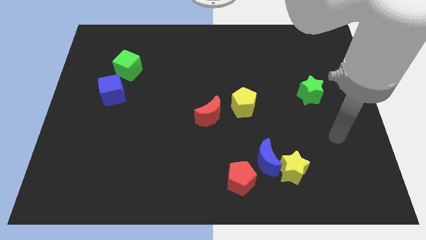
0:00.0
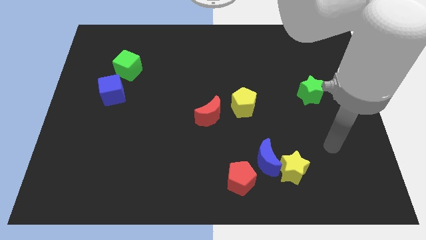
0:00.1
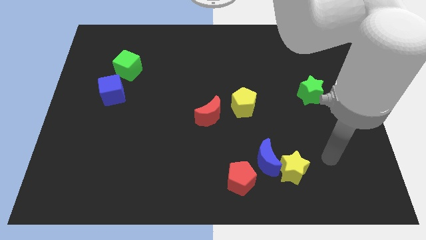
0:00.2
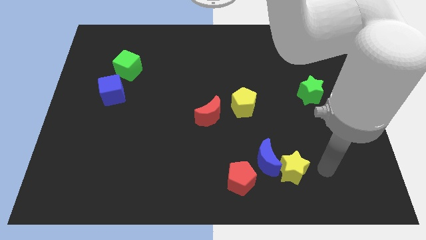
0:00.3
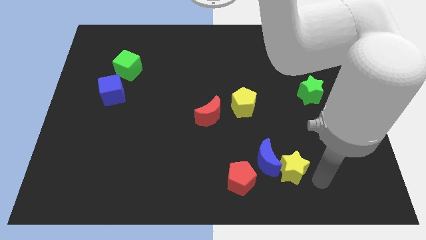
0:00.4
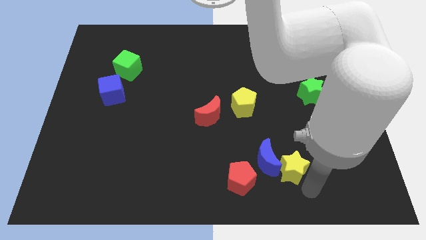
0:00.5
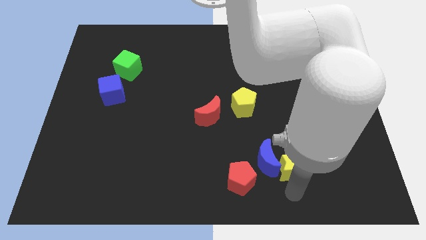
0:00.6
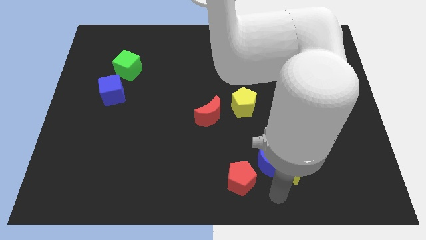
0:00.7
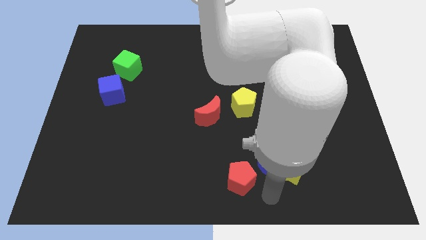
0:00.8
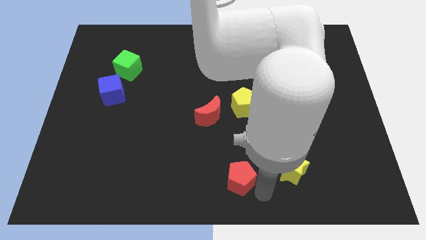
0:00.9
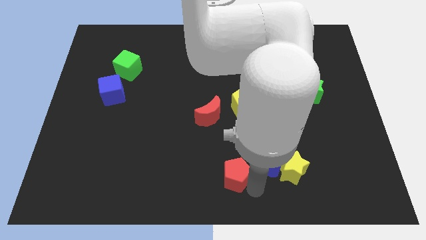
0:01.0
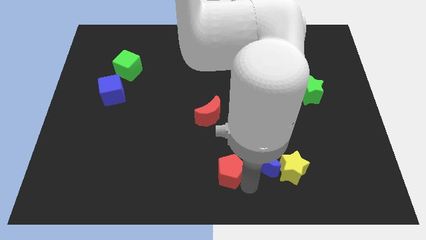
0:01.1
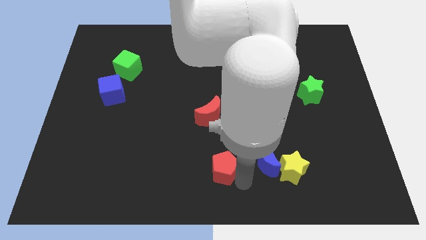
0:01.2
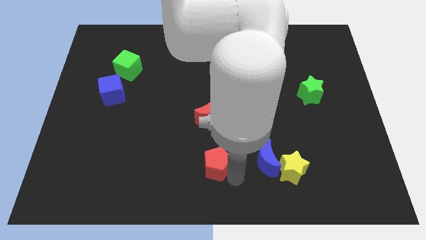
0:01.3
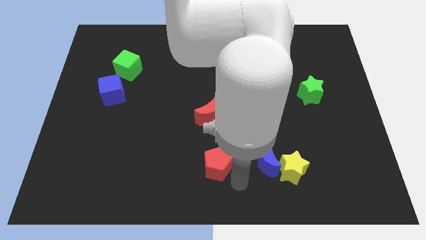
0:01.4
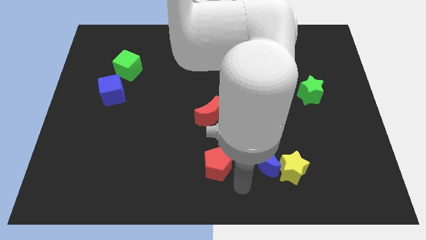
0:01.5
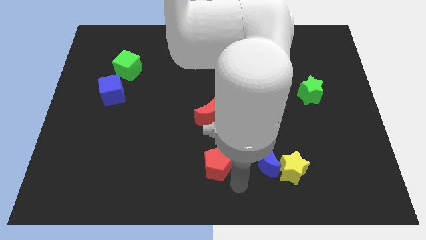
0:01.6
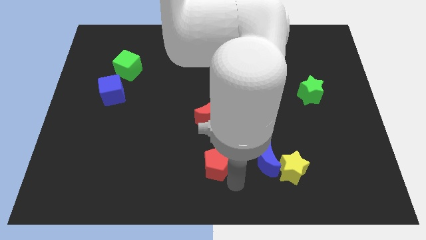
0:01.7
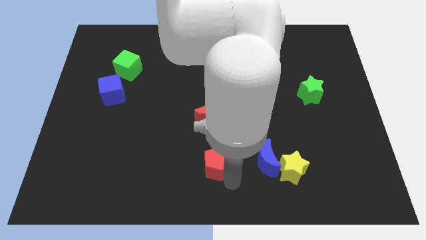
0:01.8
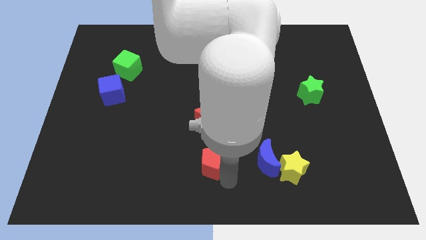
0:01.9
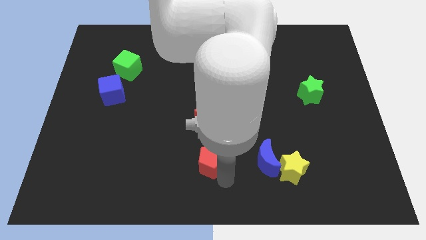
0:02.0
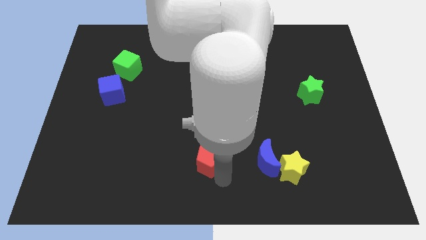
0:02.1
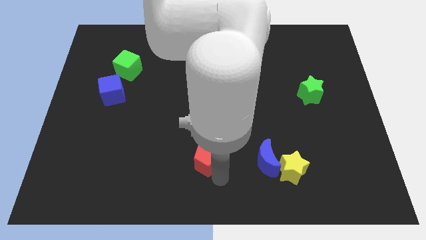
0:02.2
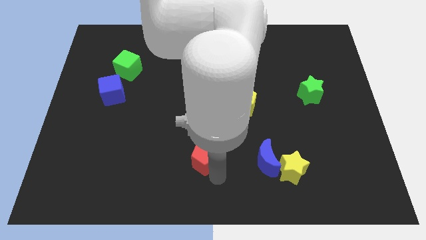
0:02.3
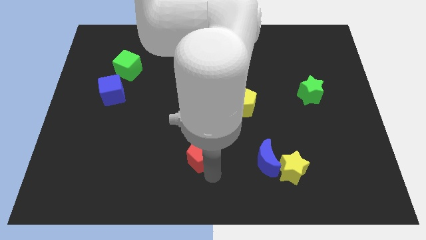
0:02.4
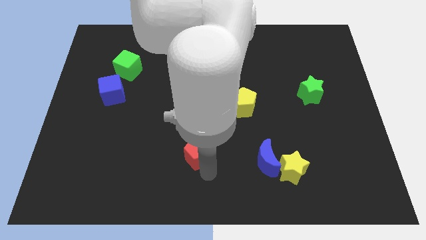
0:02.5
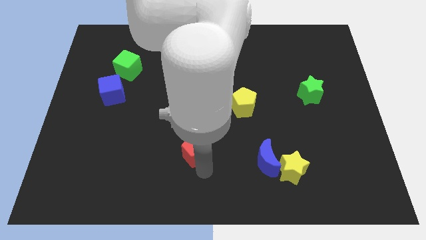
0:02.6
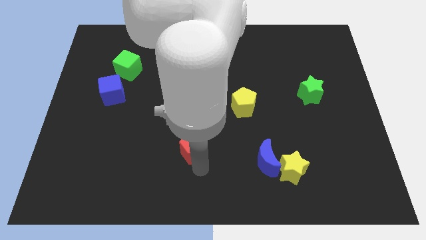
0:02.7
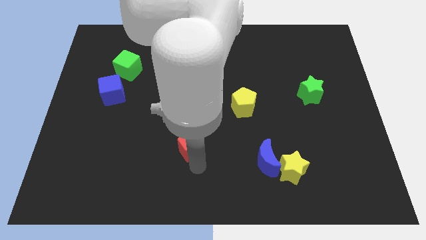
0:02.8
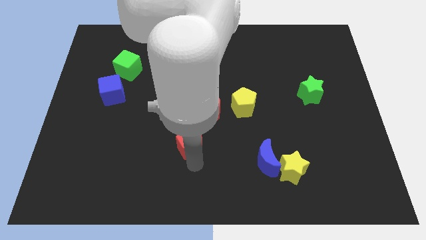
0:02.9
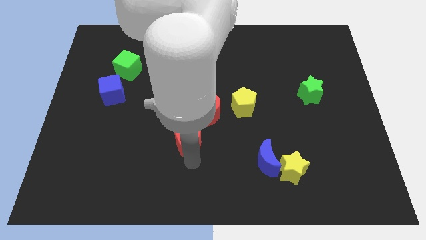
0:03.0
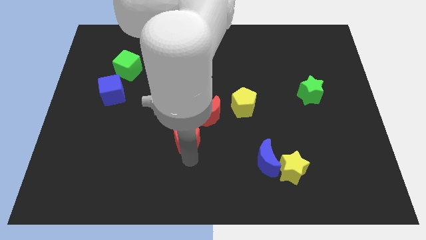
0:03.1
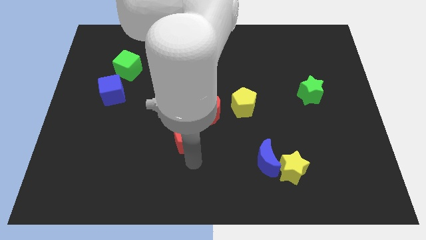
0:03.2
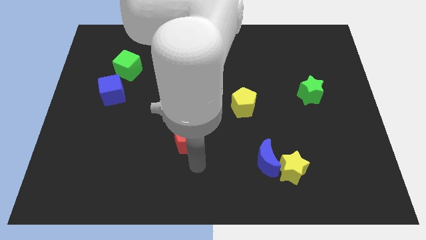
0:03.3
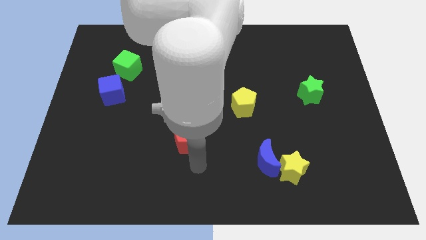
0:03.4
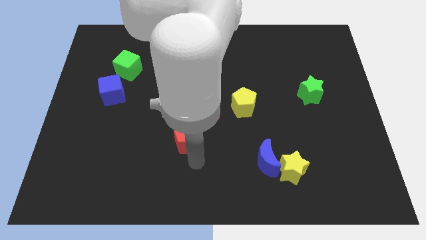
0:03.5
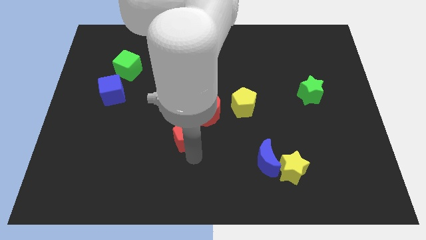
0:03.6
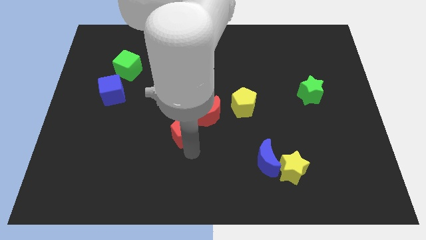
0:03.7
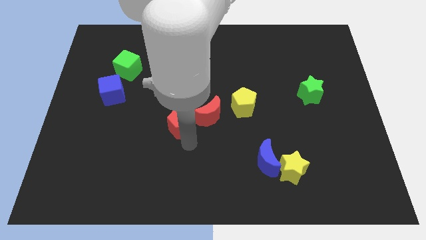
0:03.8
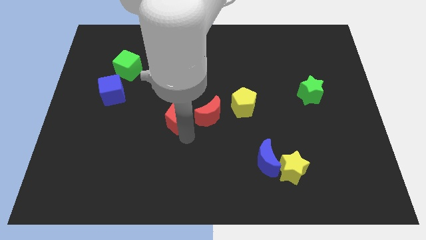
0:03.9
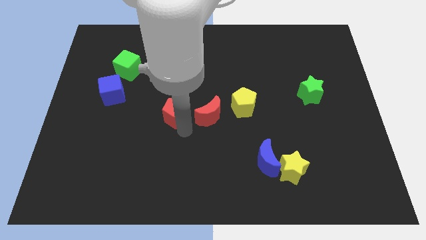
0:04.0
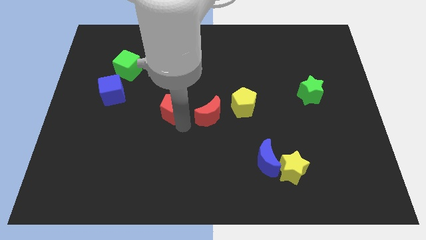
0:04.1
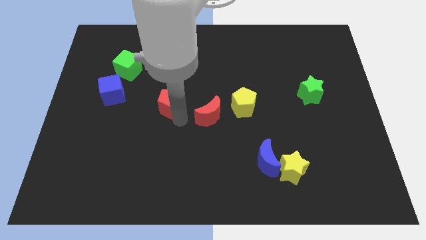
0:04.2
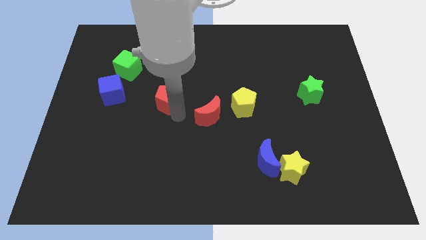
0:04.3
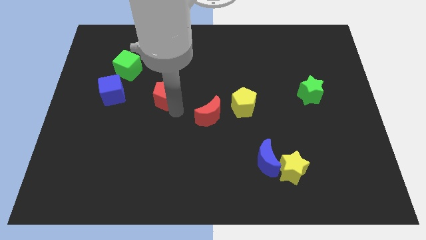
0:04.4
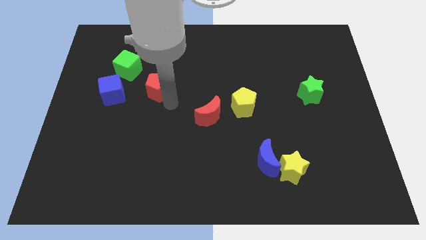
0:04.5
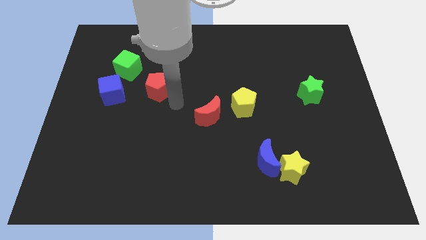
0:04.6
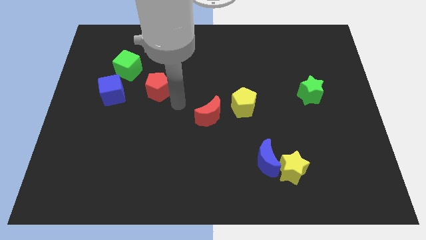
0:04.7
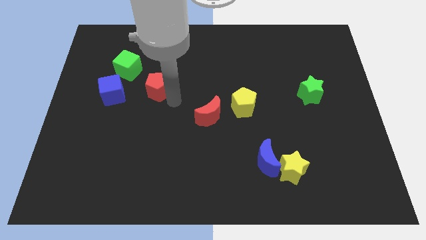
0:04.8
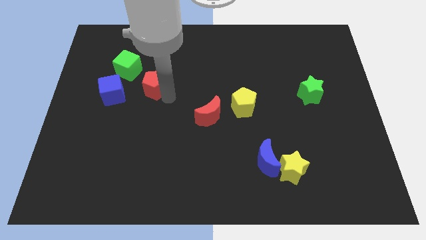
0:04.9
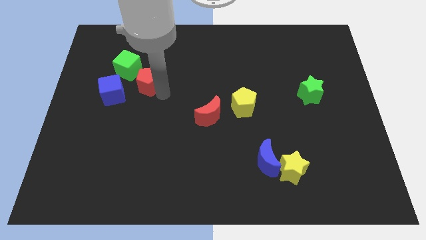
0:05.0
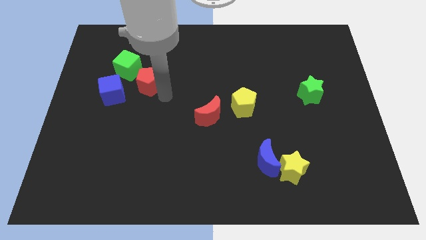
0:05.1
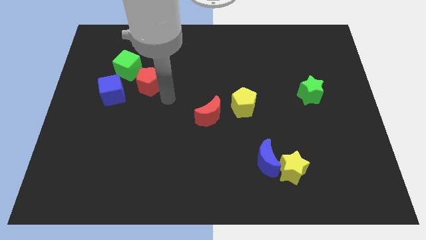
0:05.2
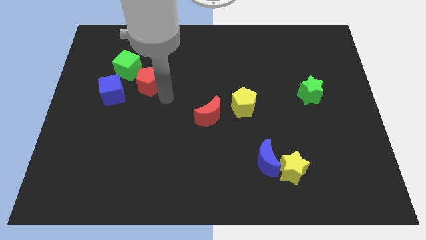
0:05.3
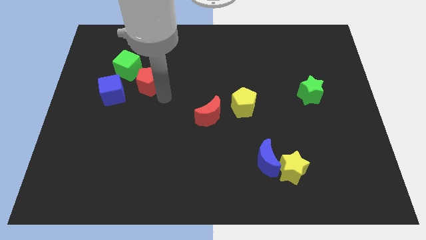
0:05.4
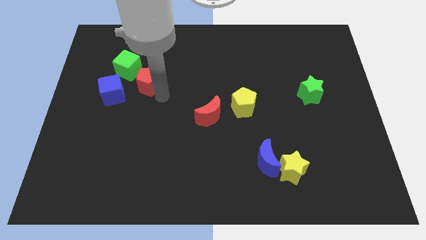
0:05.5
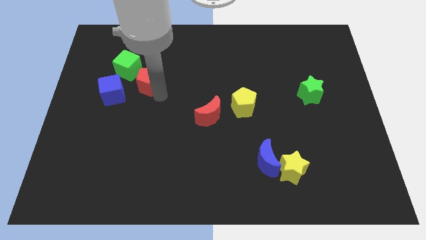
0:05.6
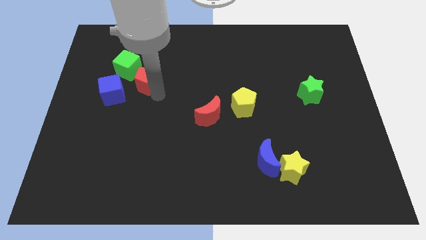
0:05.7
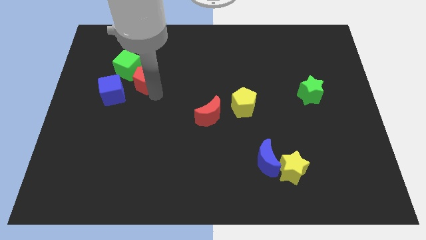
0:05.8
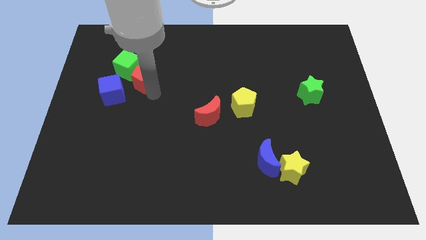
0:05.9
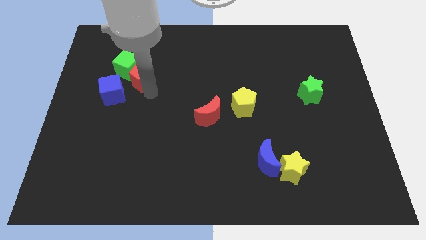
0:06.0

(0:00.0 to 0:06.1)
move the red pentagon towards the green cube

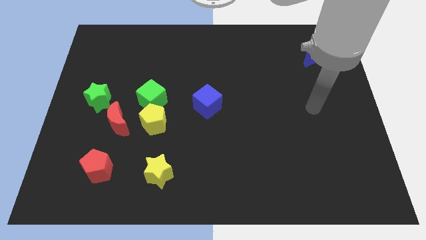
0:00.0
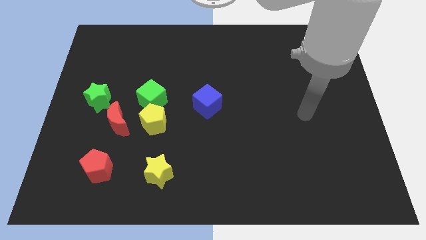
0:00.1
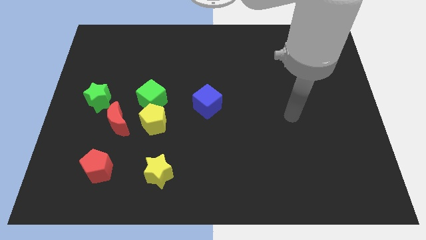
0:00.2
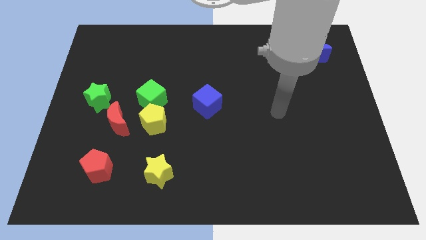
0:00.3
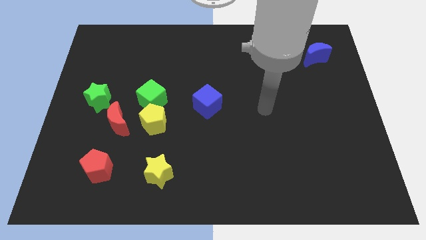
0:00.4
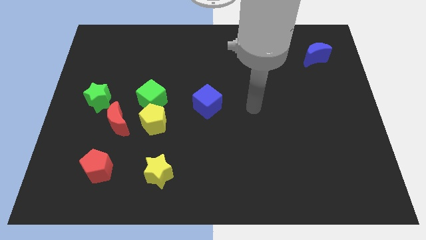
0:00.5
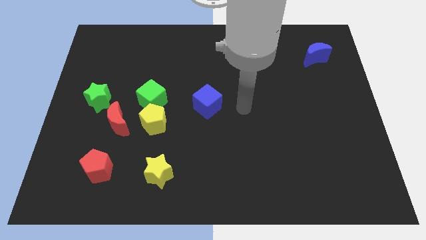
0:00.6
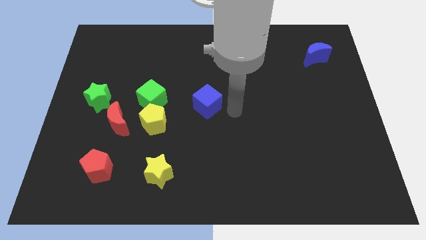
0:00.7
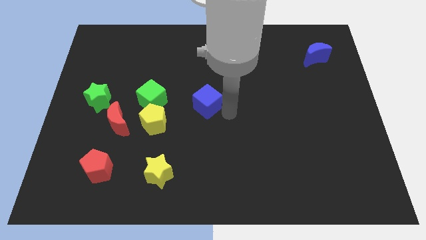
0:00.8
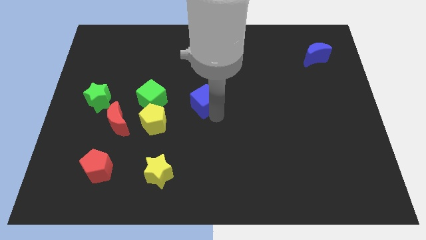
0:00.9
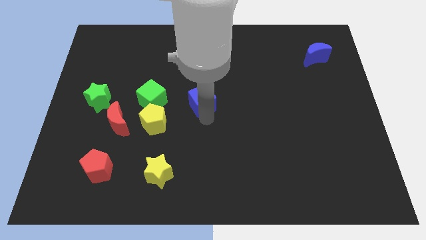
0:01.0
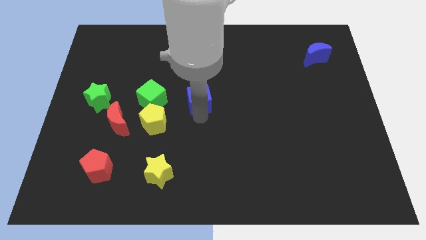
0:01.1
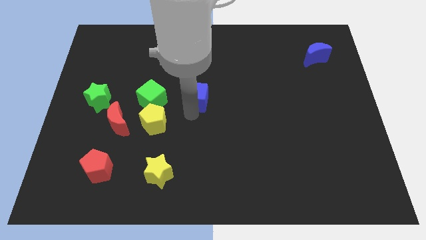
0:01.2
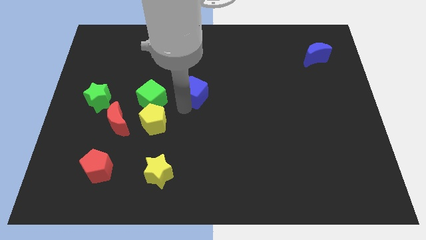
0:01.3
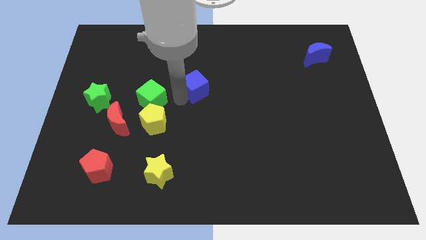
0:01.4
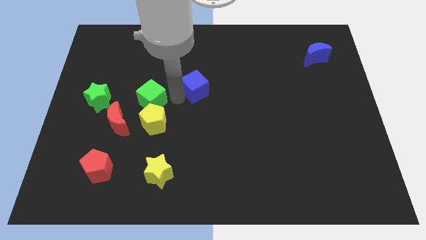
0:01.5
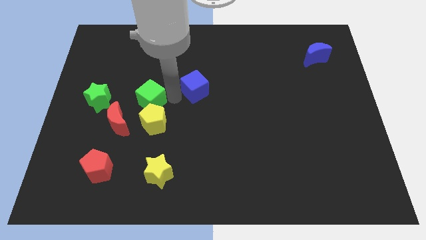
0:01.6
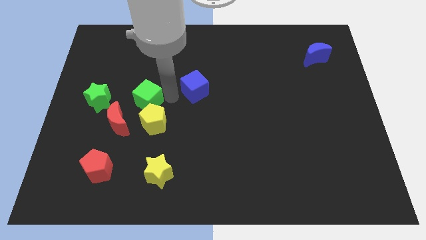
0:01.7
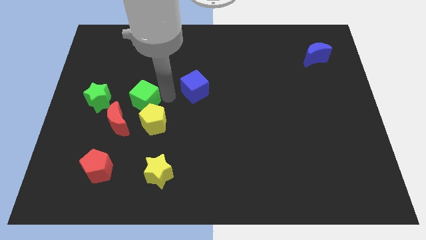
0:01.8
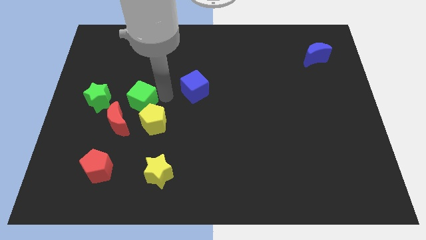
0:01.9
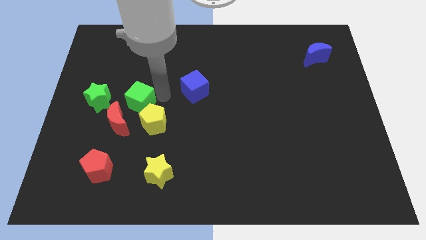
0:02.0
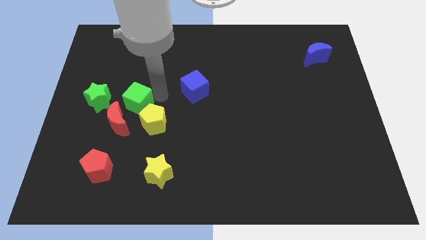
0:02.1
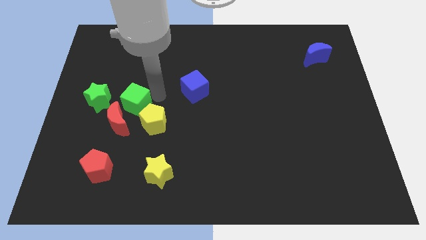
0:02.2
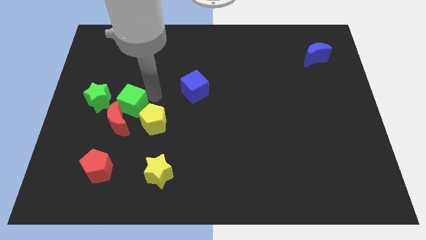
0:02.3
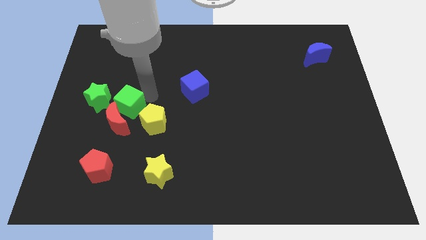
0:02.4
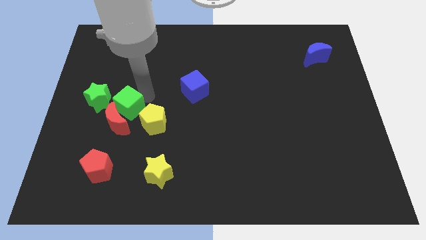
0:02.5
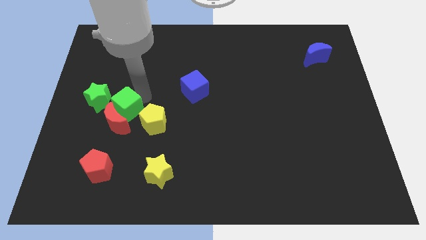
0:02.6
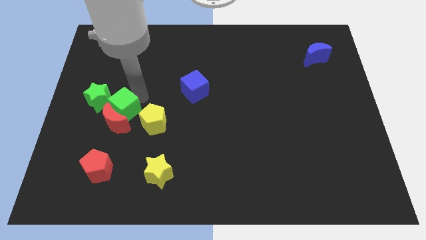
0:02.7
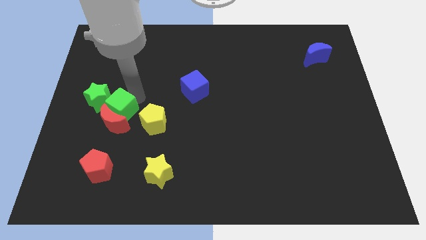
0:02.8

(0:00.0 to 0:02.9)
slide the green cube close to the green star
